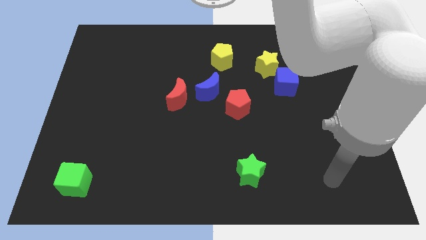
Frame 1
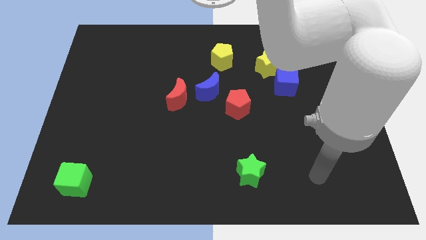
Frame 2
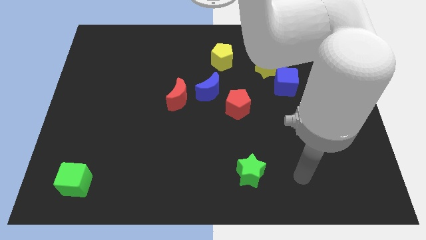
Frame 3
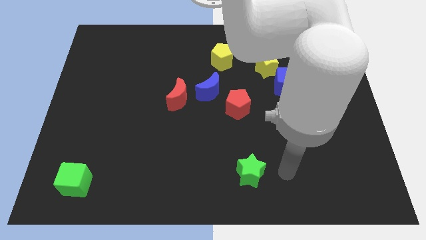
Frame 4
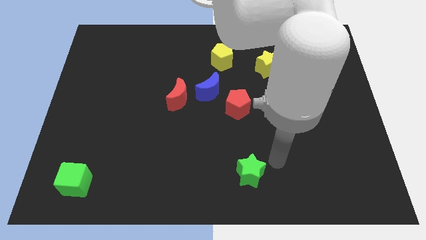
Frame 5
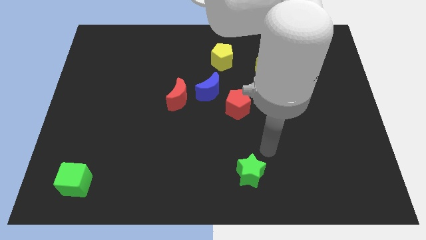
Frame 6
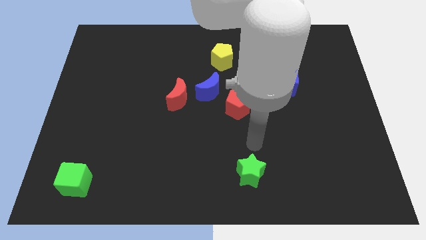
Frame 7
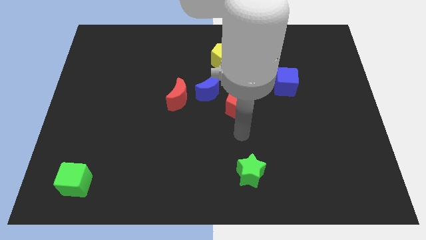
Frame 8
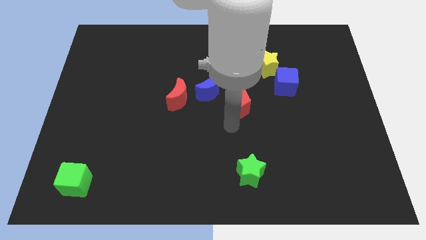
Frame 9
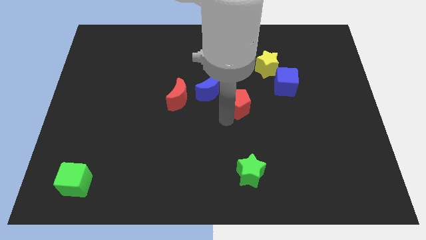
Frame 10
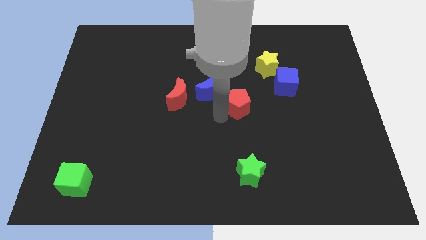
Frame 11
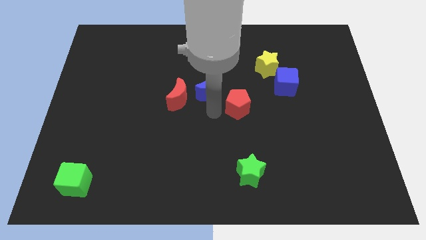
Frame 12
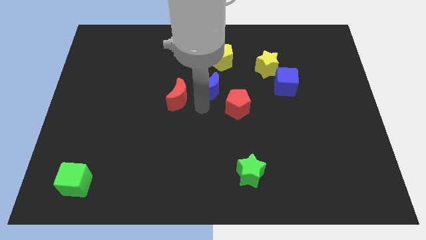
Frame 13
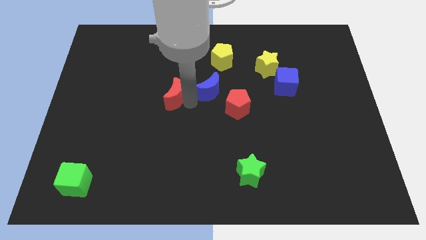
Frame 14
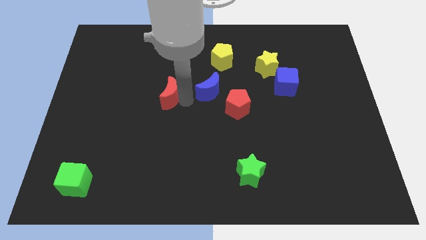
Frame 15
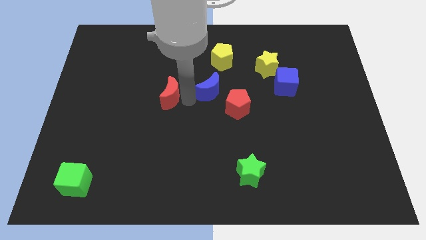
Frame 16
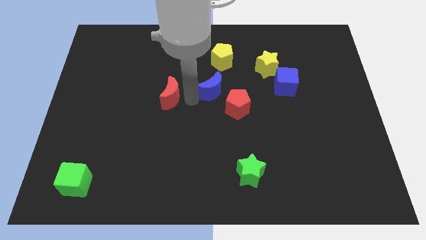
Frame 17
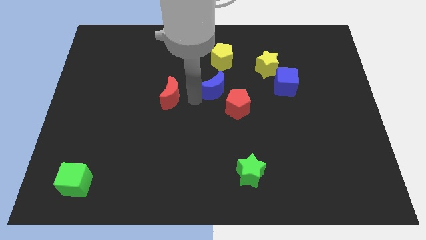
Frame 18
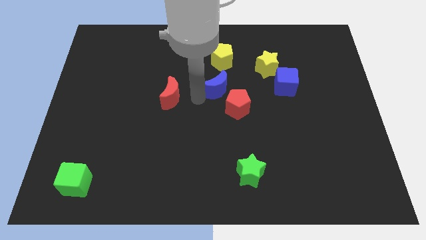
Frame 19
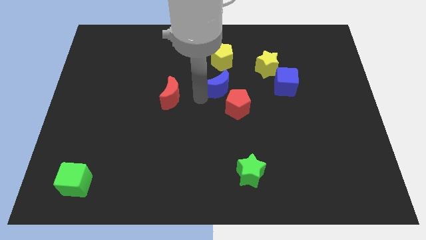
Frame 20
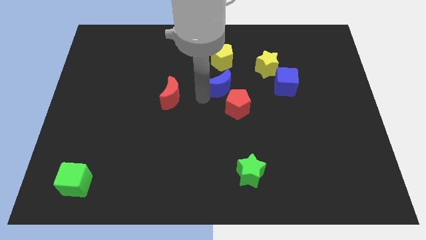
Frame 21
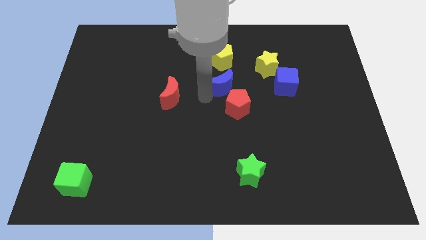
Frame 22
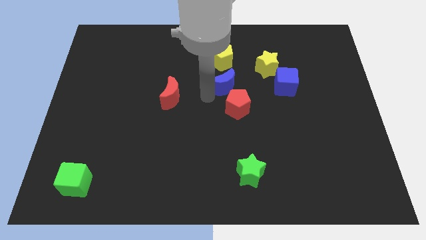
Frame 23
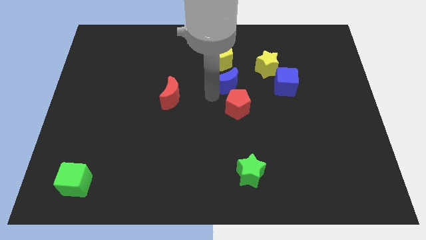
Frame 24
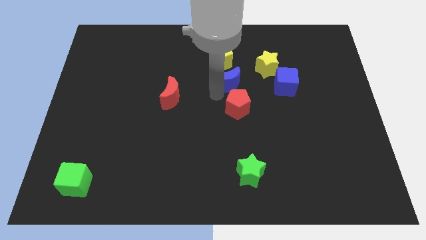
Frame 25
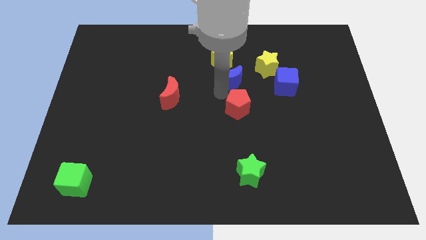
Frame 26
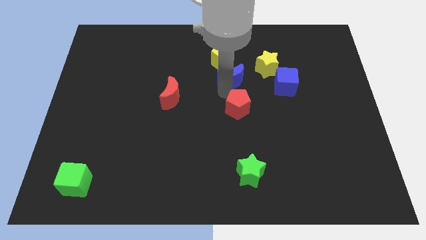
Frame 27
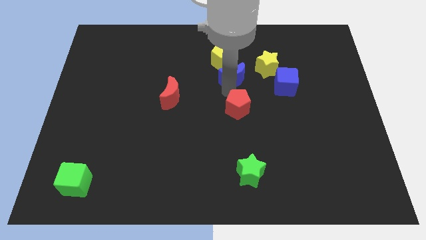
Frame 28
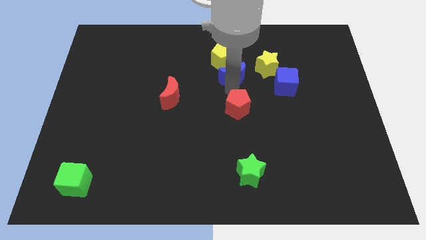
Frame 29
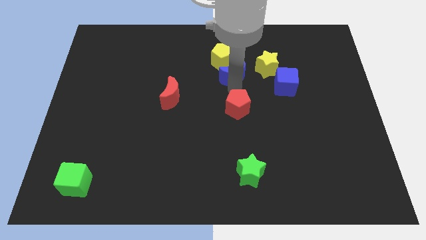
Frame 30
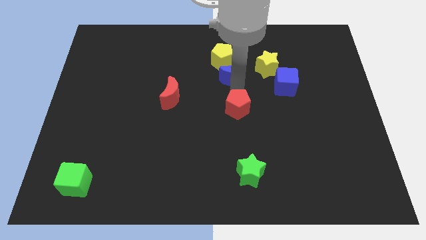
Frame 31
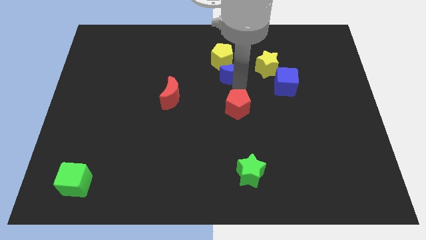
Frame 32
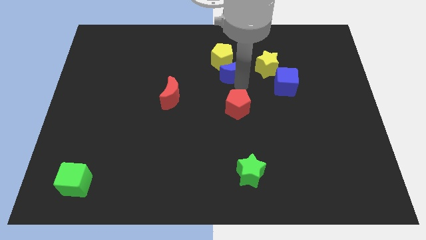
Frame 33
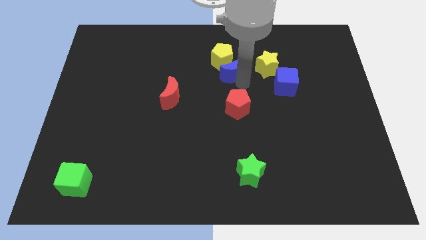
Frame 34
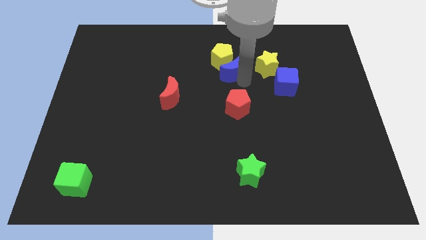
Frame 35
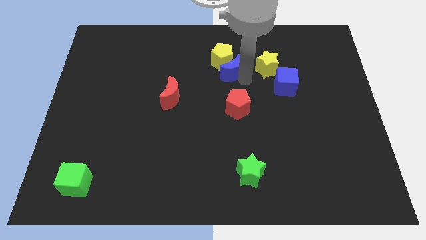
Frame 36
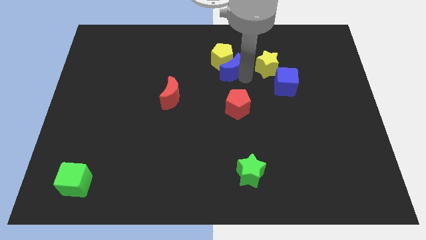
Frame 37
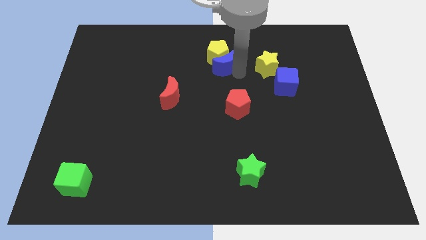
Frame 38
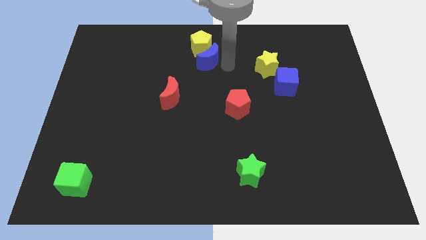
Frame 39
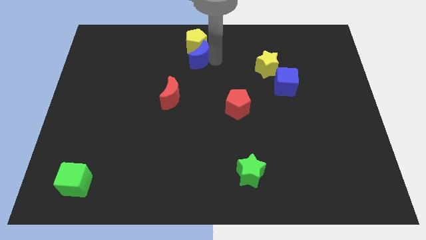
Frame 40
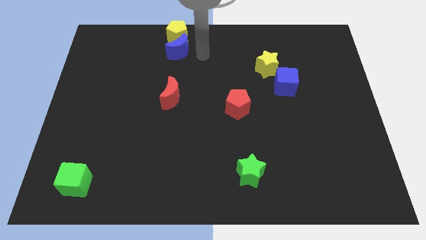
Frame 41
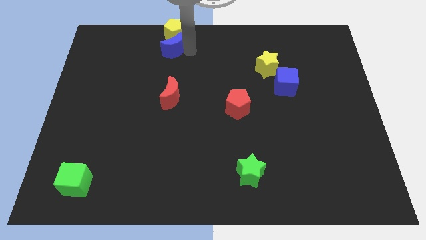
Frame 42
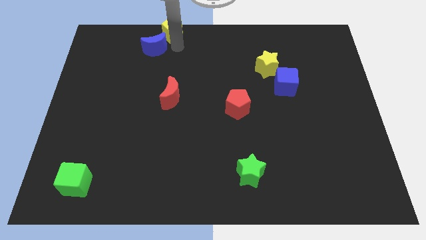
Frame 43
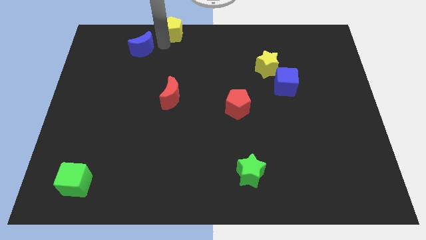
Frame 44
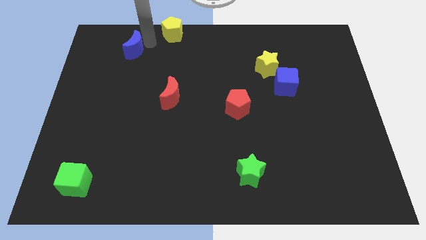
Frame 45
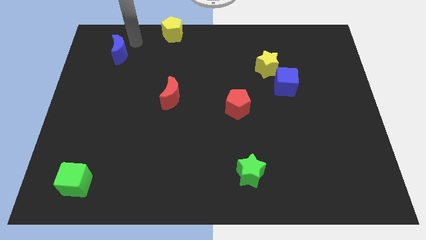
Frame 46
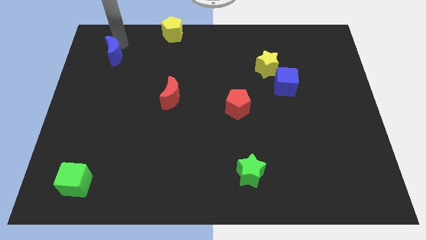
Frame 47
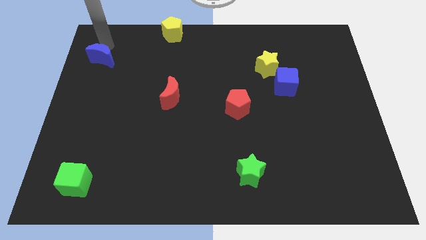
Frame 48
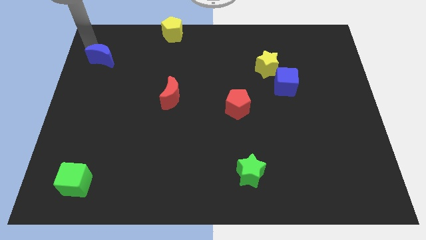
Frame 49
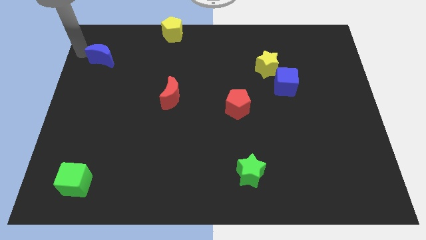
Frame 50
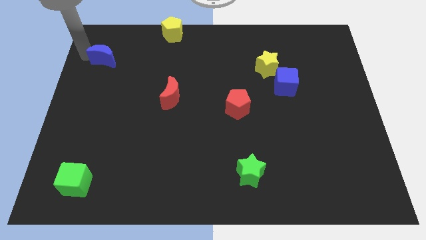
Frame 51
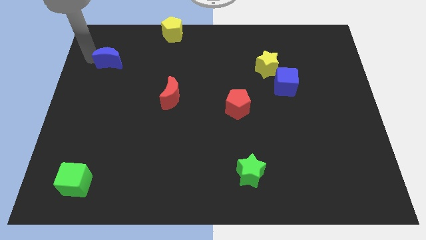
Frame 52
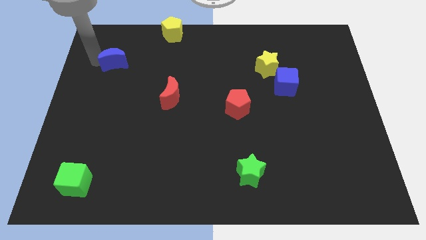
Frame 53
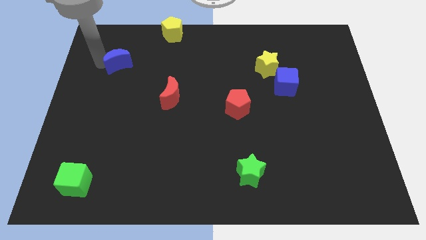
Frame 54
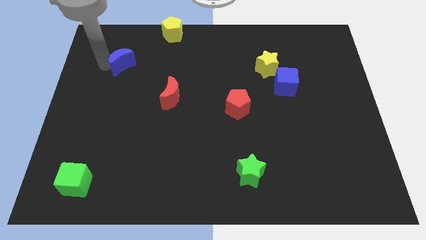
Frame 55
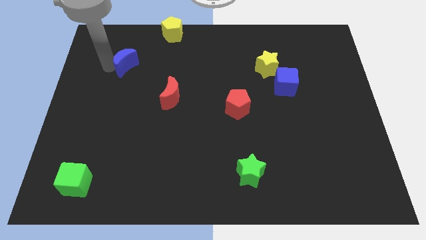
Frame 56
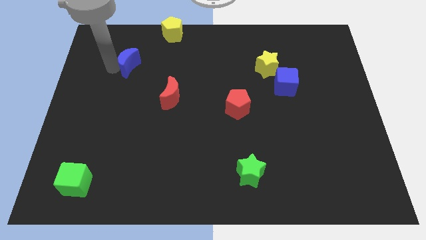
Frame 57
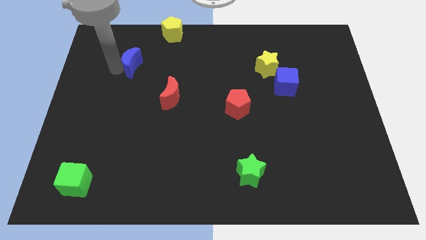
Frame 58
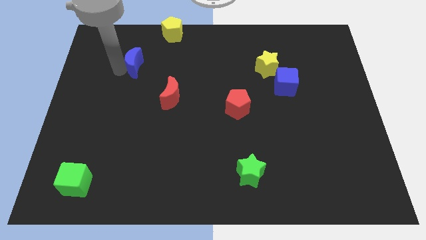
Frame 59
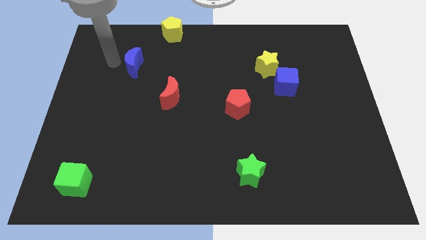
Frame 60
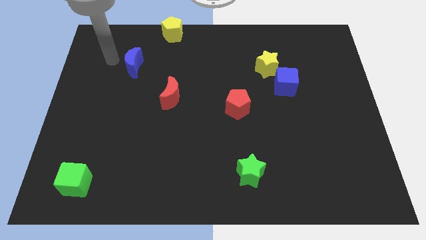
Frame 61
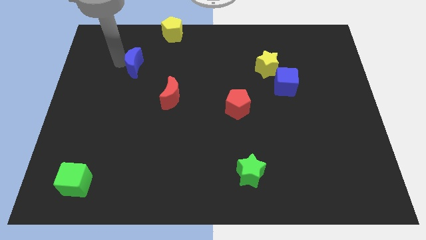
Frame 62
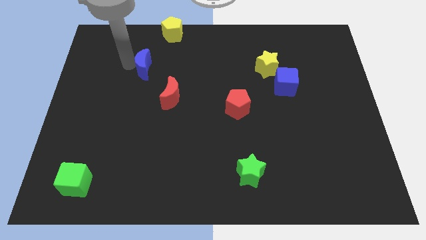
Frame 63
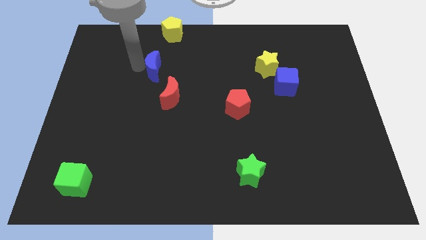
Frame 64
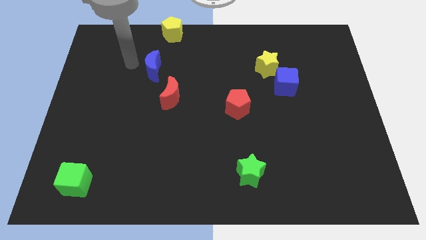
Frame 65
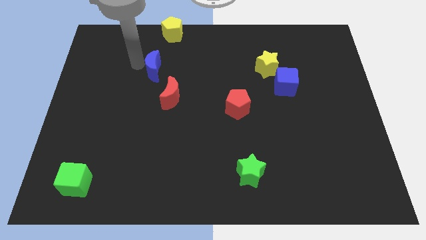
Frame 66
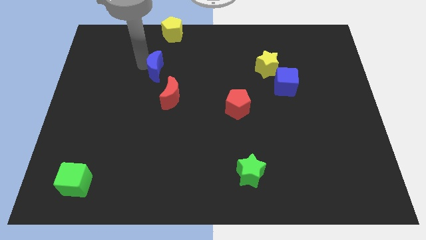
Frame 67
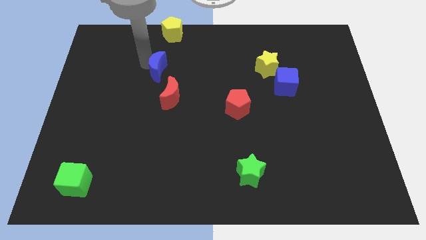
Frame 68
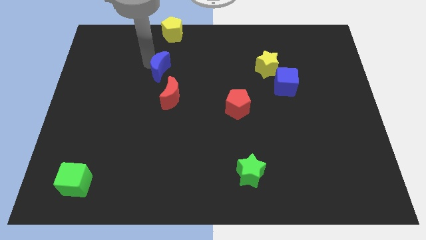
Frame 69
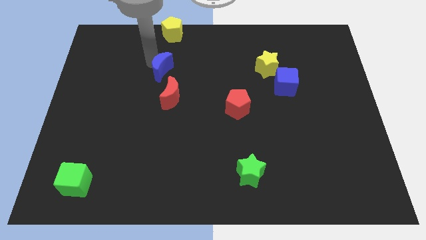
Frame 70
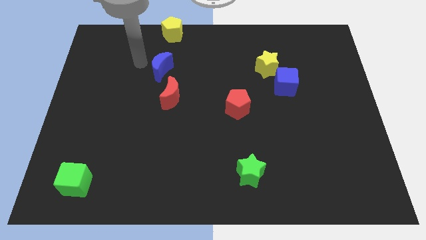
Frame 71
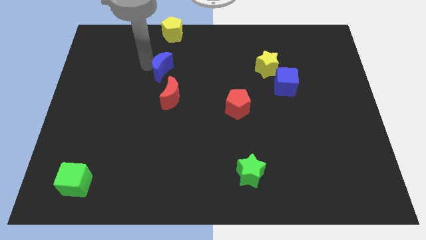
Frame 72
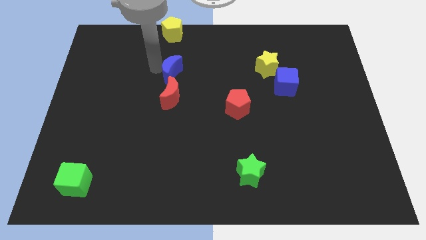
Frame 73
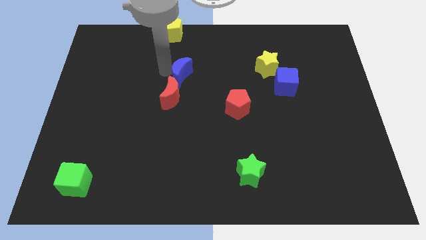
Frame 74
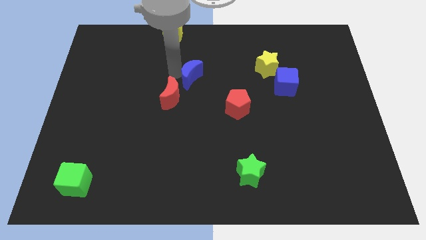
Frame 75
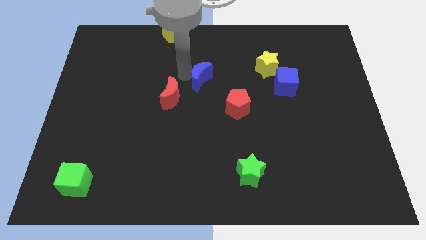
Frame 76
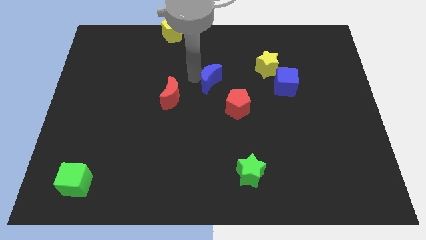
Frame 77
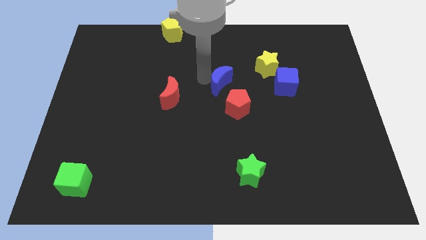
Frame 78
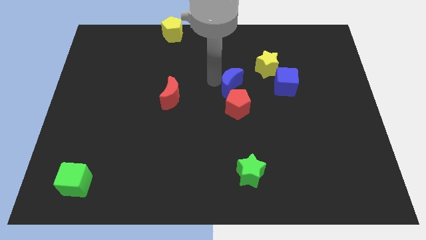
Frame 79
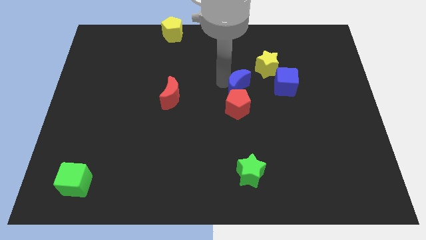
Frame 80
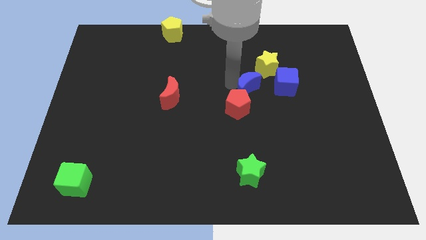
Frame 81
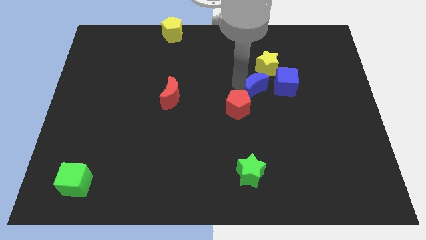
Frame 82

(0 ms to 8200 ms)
push the blue moon to the bottom left side of the blue cube

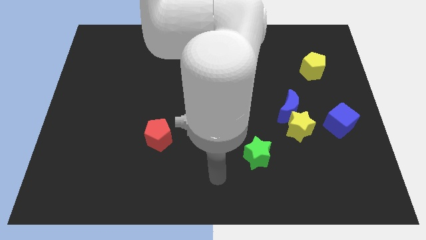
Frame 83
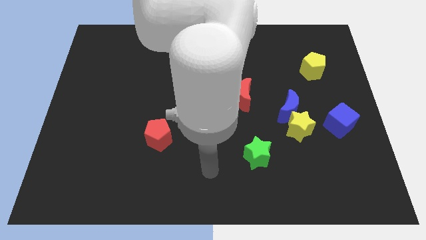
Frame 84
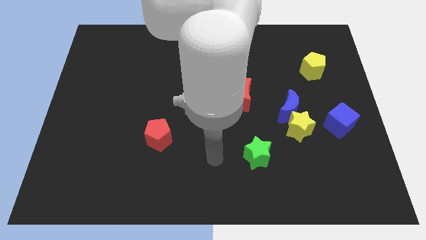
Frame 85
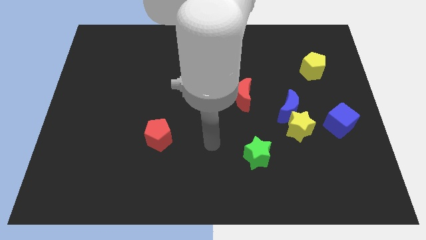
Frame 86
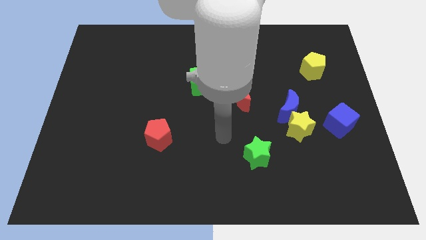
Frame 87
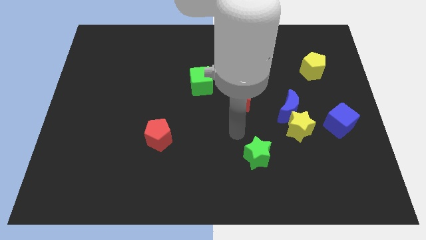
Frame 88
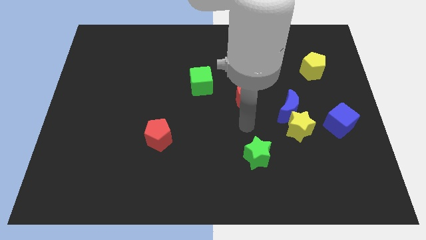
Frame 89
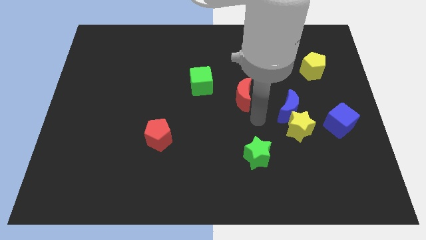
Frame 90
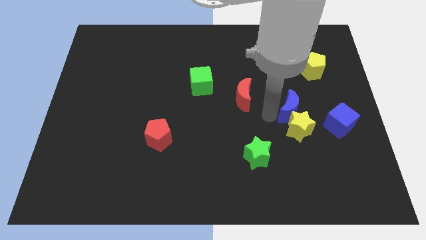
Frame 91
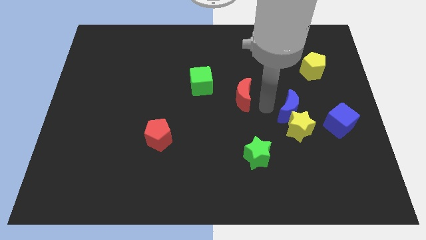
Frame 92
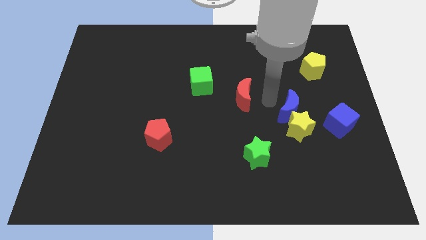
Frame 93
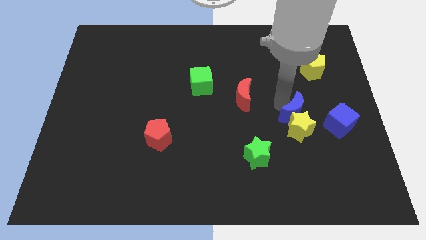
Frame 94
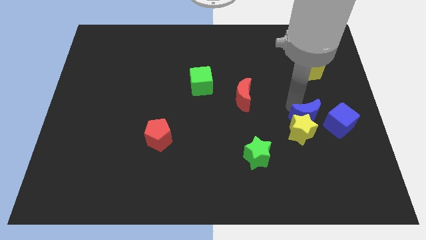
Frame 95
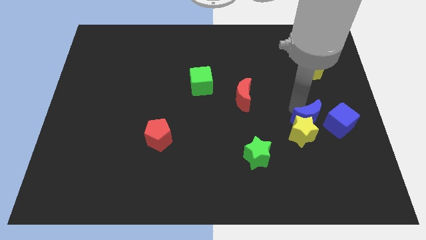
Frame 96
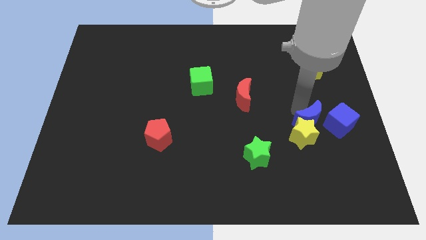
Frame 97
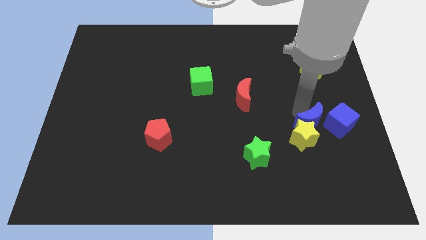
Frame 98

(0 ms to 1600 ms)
push the yellow star just right of the green star
